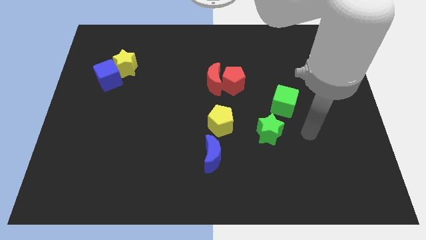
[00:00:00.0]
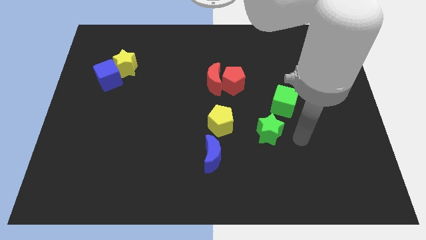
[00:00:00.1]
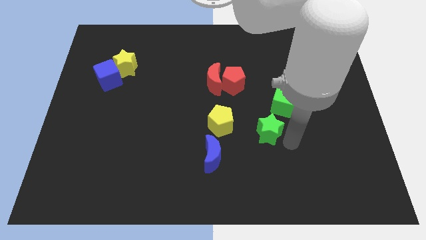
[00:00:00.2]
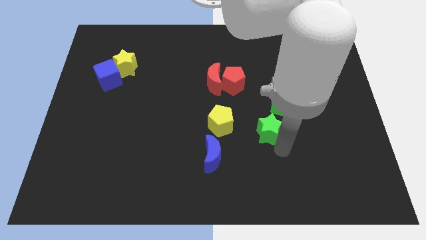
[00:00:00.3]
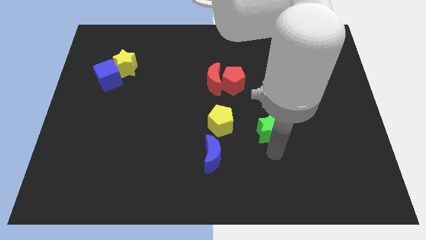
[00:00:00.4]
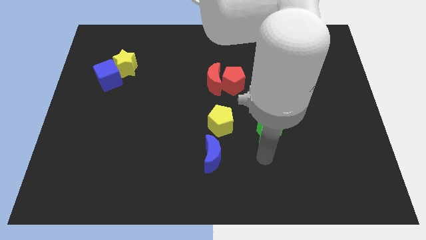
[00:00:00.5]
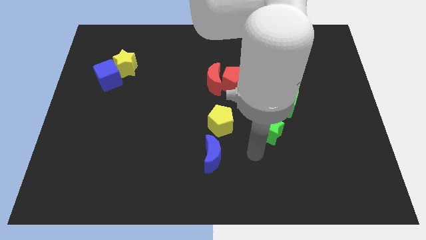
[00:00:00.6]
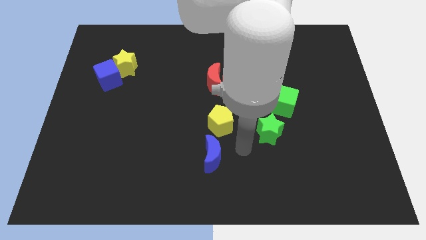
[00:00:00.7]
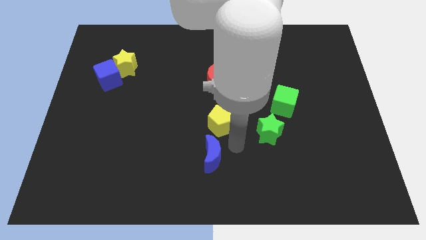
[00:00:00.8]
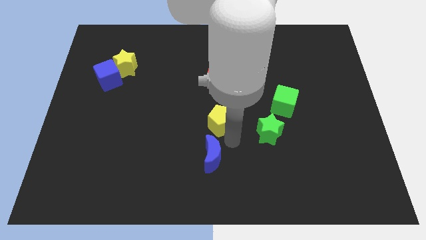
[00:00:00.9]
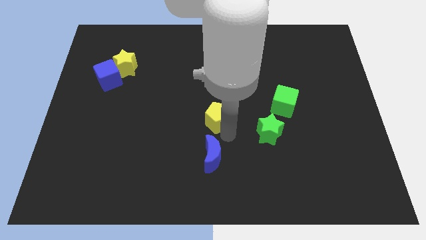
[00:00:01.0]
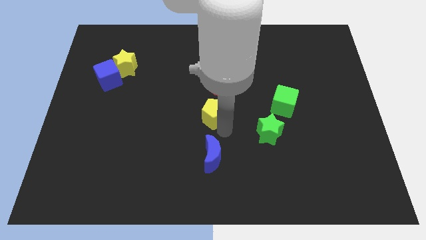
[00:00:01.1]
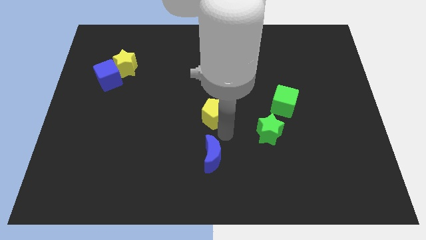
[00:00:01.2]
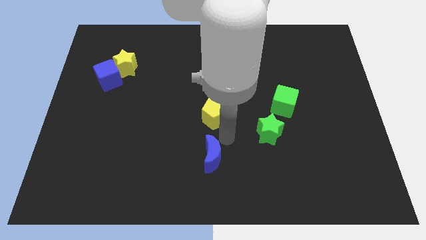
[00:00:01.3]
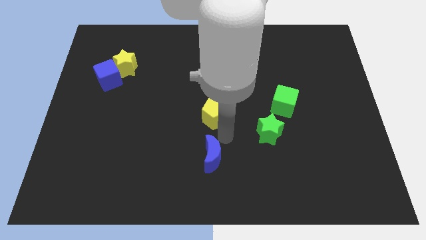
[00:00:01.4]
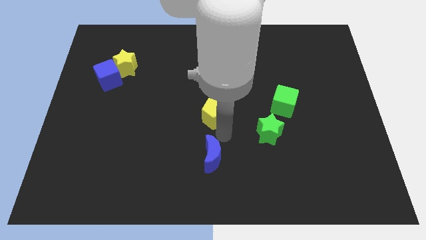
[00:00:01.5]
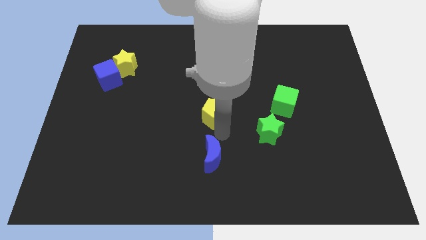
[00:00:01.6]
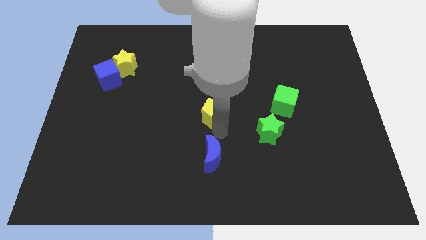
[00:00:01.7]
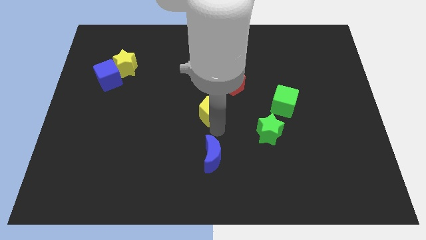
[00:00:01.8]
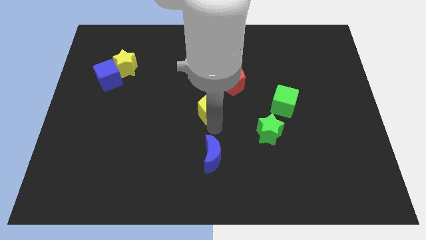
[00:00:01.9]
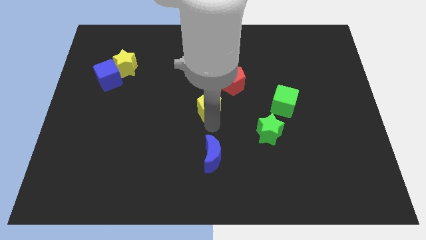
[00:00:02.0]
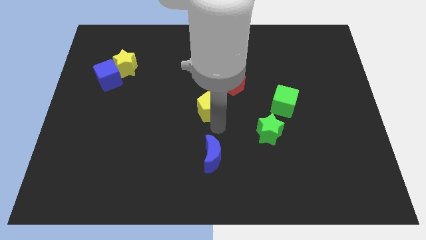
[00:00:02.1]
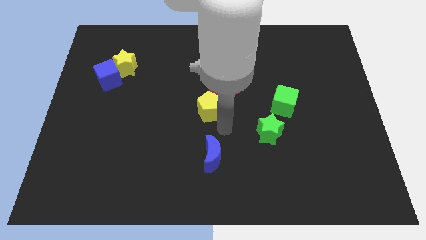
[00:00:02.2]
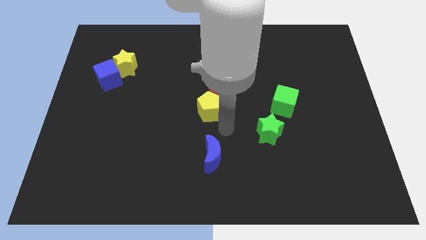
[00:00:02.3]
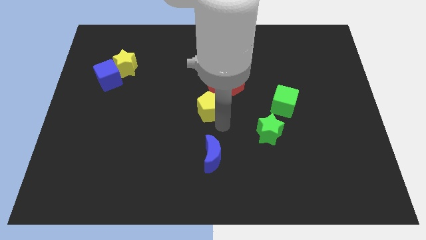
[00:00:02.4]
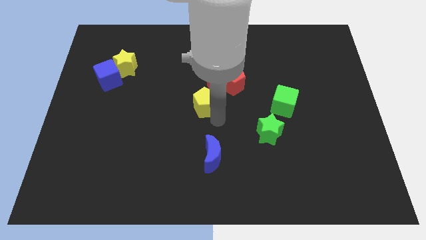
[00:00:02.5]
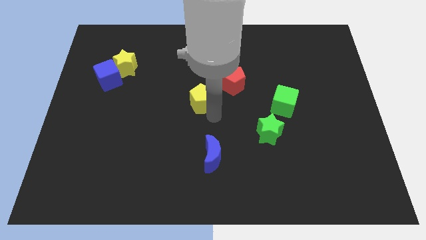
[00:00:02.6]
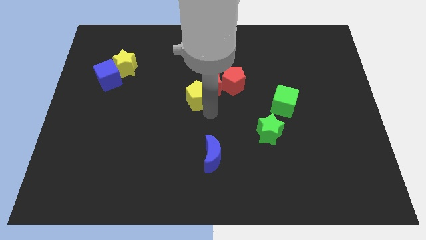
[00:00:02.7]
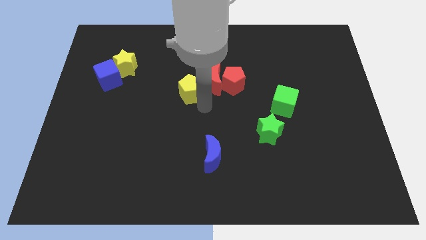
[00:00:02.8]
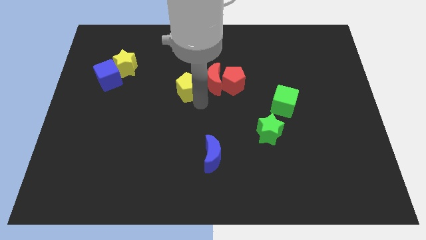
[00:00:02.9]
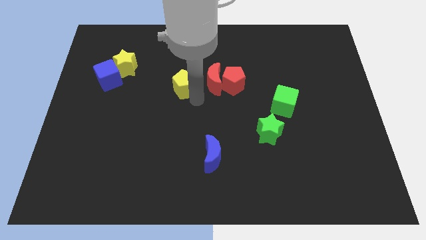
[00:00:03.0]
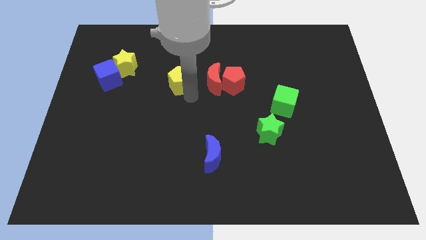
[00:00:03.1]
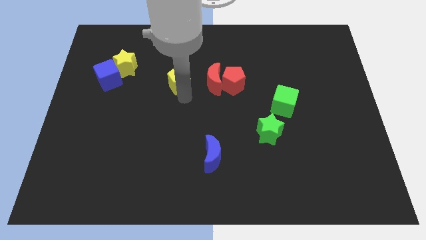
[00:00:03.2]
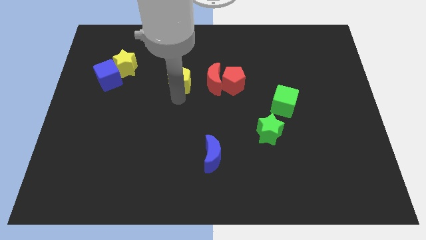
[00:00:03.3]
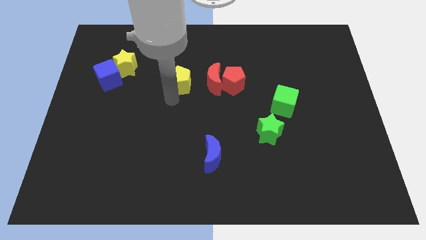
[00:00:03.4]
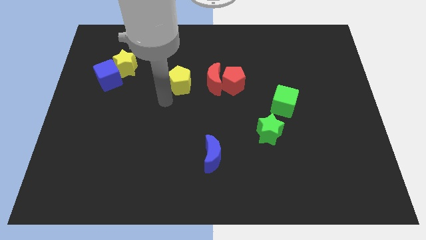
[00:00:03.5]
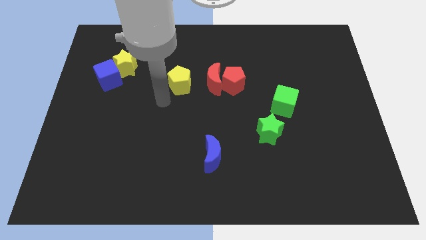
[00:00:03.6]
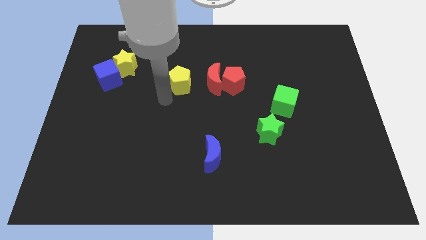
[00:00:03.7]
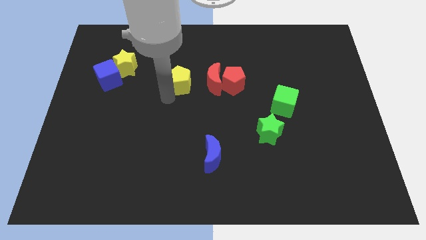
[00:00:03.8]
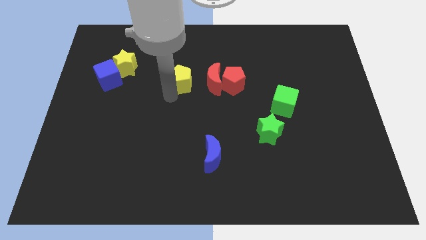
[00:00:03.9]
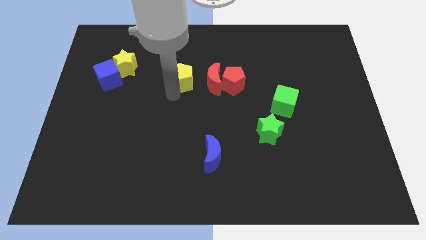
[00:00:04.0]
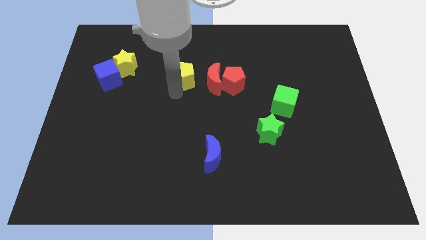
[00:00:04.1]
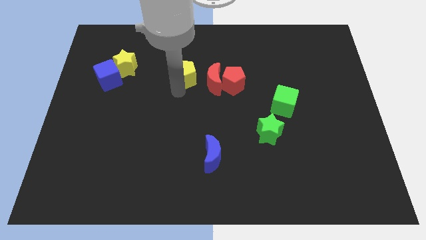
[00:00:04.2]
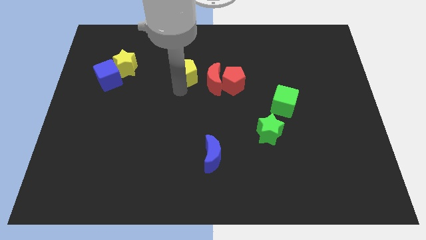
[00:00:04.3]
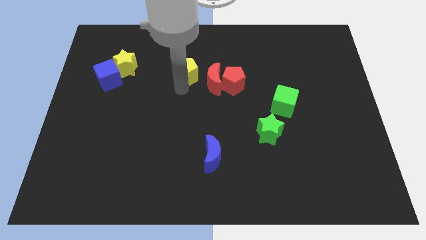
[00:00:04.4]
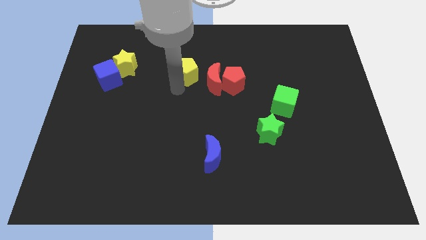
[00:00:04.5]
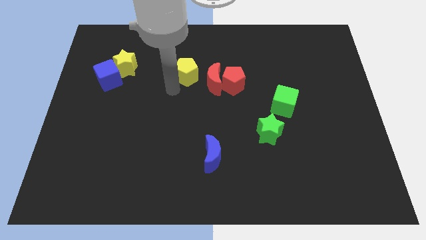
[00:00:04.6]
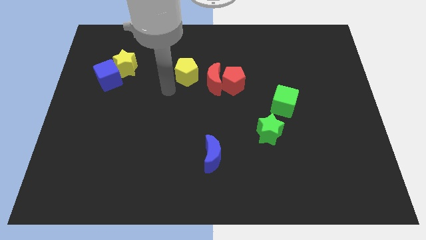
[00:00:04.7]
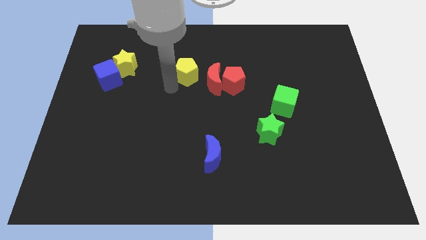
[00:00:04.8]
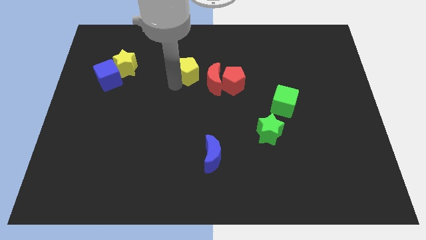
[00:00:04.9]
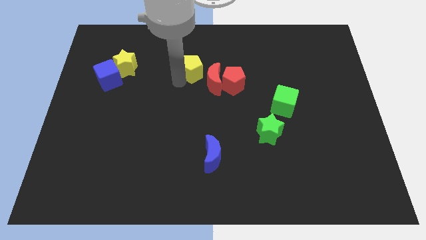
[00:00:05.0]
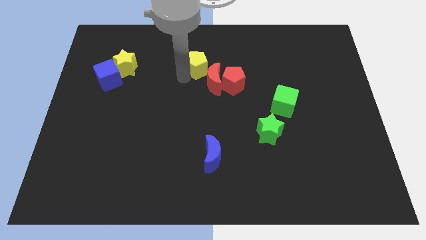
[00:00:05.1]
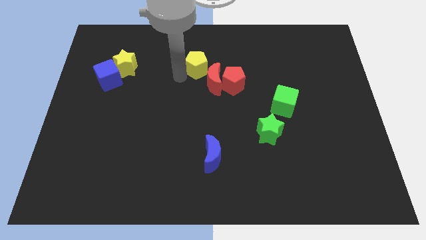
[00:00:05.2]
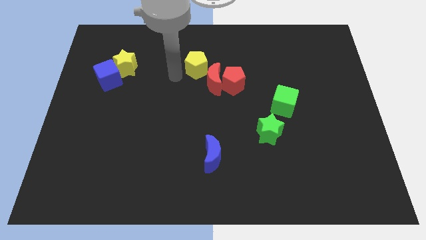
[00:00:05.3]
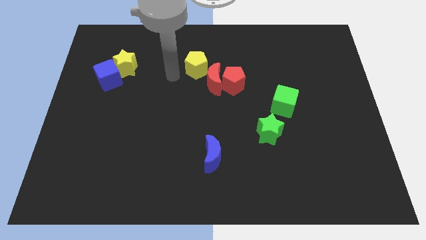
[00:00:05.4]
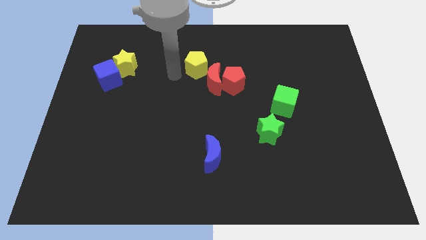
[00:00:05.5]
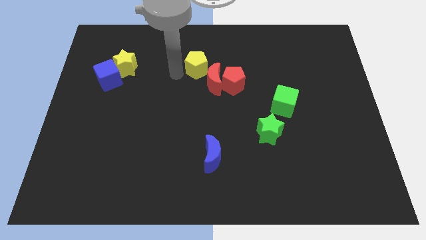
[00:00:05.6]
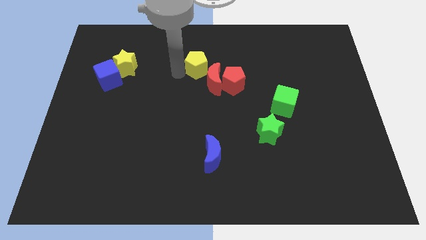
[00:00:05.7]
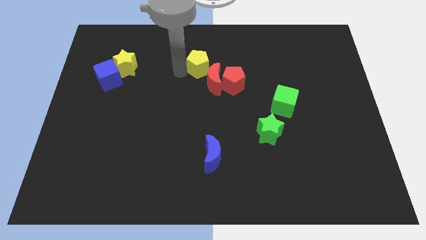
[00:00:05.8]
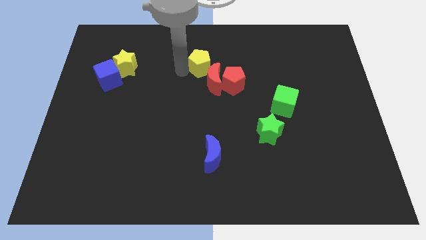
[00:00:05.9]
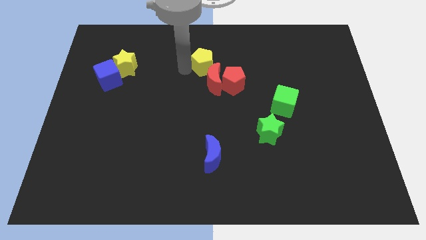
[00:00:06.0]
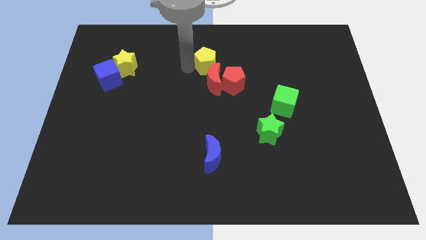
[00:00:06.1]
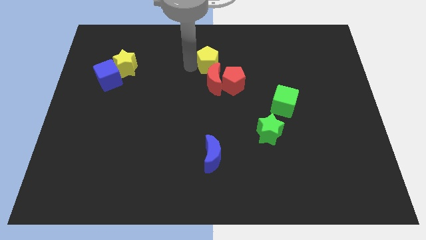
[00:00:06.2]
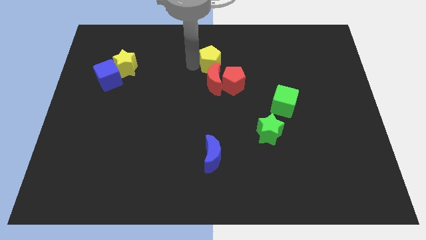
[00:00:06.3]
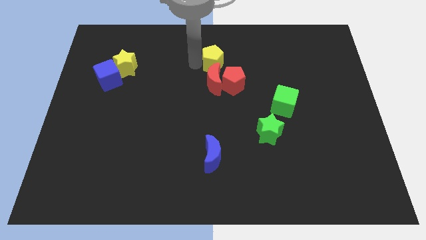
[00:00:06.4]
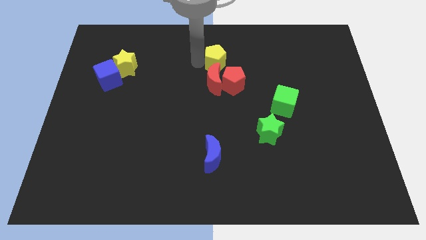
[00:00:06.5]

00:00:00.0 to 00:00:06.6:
move the yellow pentagon diagonally up and to the right of the red moon

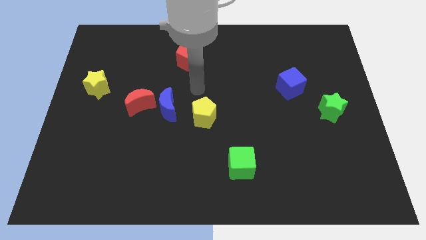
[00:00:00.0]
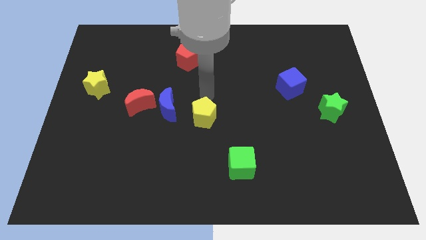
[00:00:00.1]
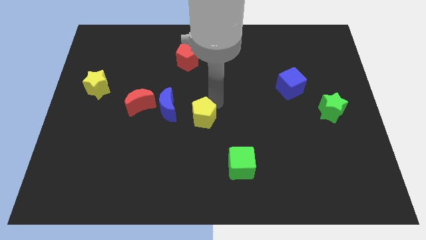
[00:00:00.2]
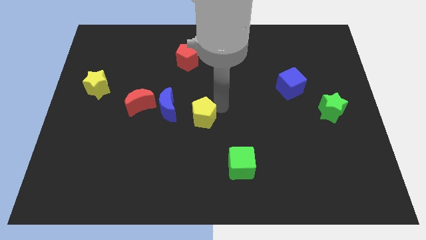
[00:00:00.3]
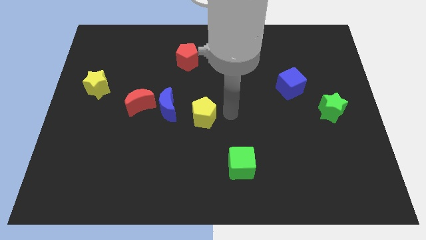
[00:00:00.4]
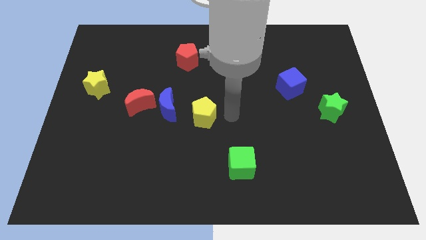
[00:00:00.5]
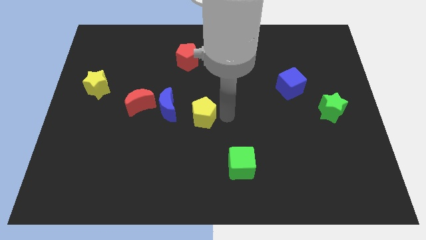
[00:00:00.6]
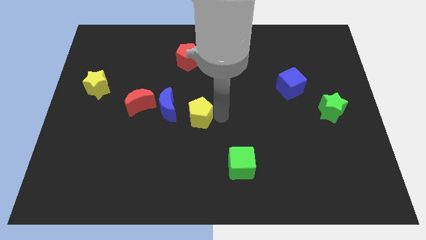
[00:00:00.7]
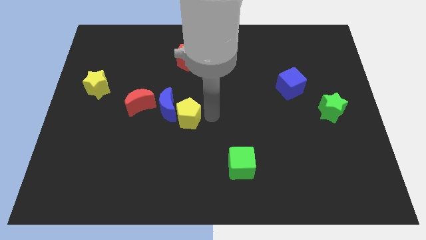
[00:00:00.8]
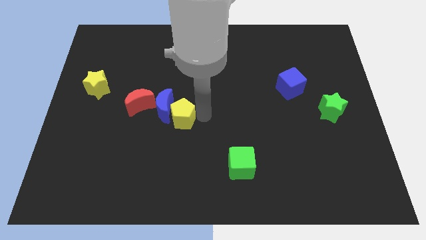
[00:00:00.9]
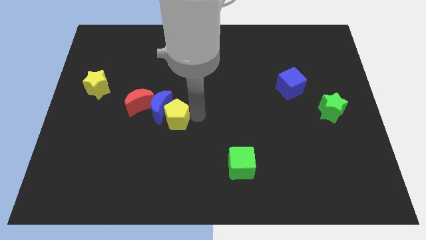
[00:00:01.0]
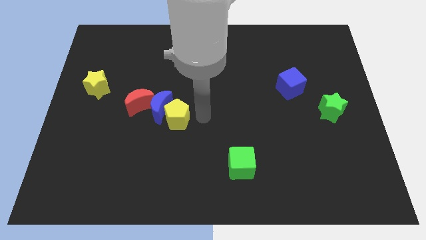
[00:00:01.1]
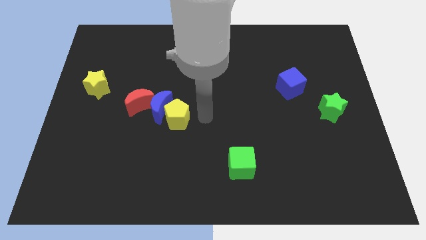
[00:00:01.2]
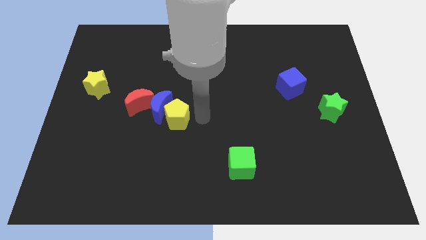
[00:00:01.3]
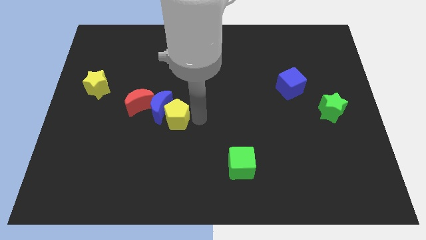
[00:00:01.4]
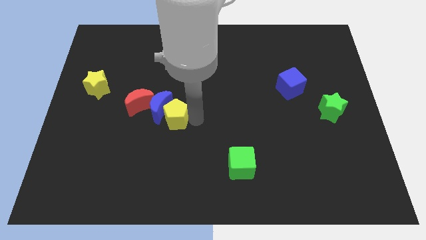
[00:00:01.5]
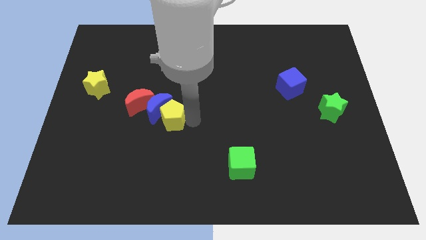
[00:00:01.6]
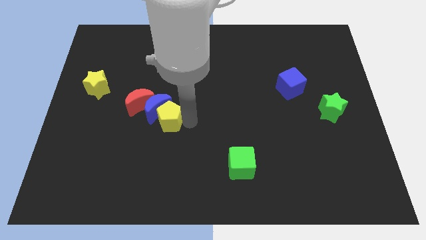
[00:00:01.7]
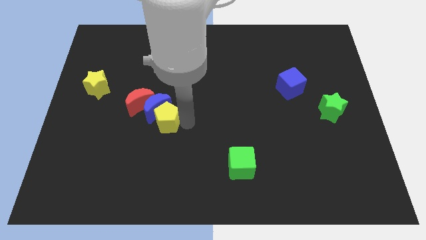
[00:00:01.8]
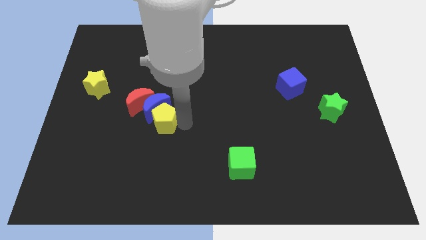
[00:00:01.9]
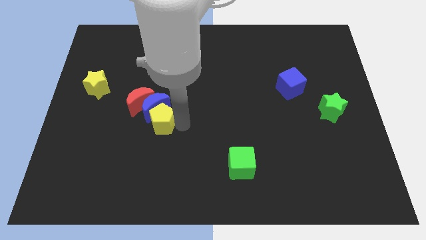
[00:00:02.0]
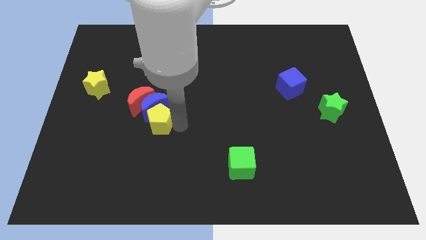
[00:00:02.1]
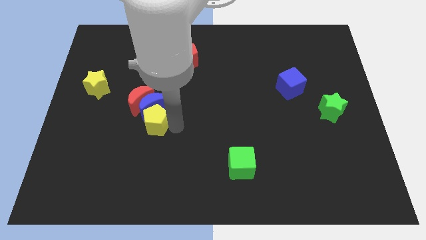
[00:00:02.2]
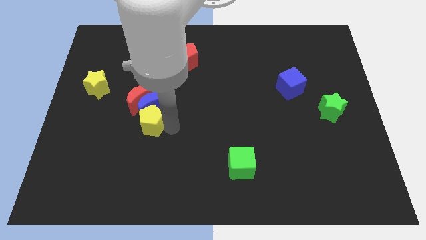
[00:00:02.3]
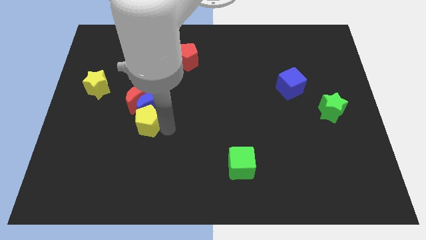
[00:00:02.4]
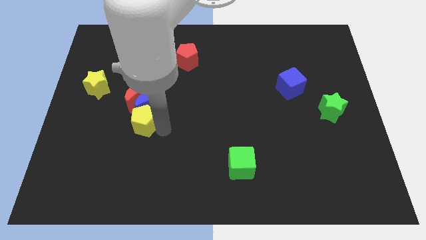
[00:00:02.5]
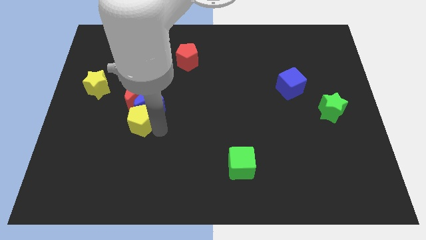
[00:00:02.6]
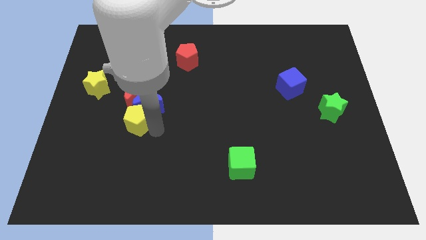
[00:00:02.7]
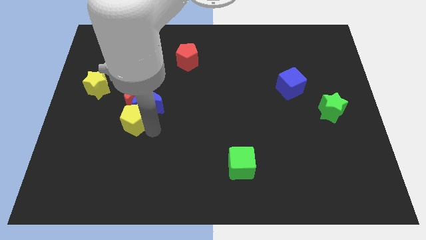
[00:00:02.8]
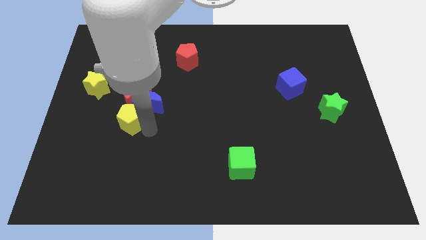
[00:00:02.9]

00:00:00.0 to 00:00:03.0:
push the yellow pentagon diagonally down and to the left of the red moon
